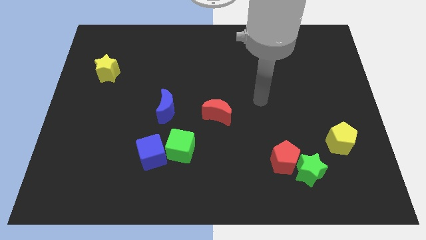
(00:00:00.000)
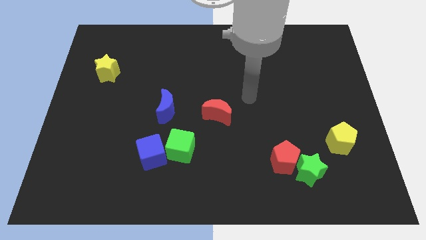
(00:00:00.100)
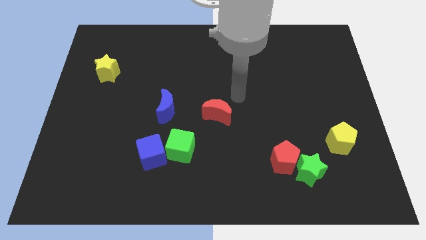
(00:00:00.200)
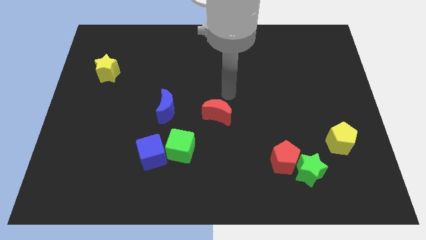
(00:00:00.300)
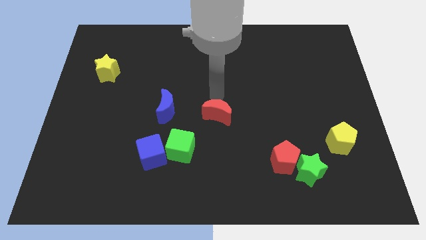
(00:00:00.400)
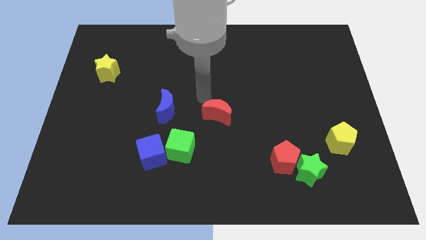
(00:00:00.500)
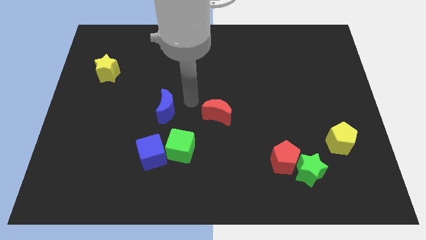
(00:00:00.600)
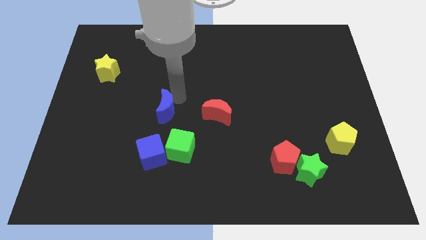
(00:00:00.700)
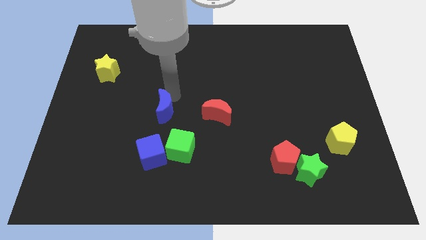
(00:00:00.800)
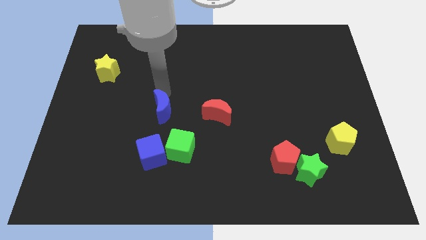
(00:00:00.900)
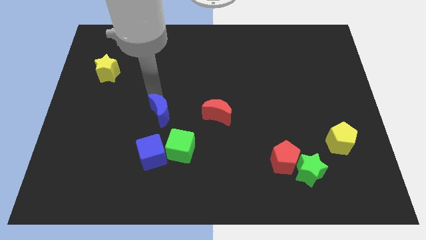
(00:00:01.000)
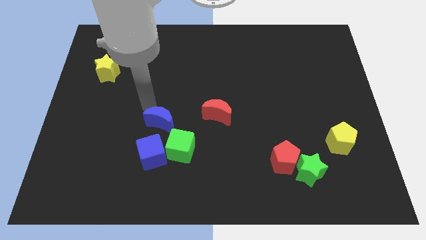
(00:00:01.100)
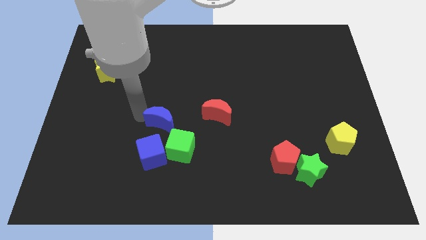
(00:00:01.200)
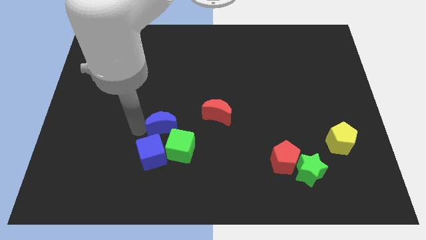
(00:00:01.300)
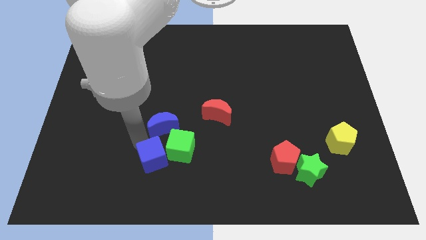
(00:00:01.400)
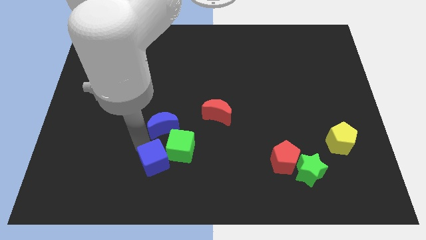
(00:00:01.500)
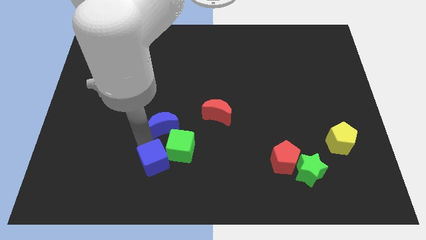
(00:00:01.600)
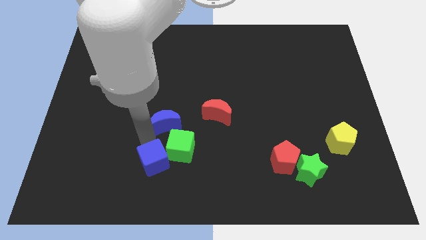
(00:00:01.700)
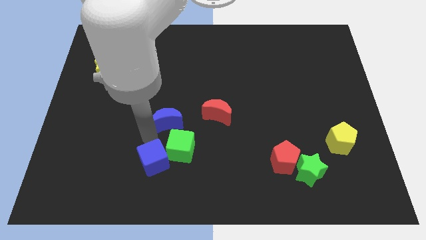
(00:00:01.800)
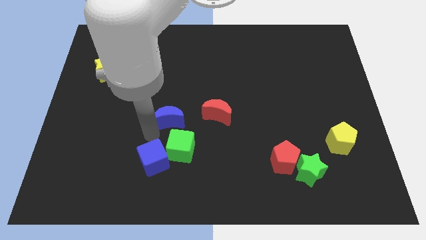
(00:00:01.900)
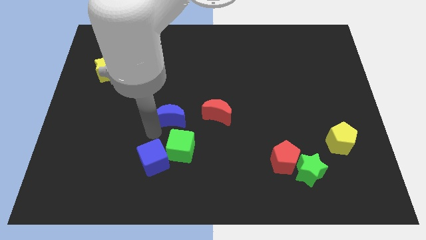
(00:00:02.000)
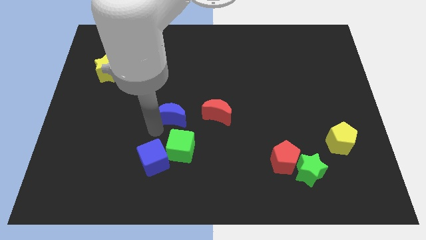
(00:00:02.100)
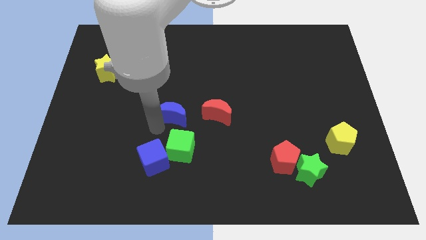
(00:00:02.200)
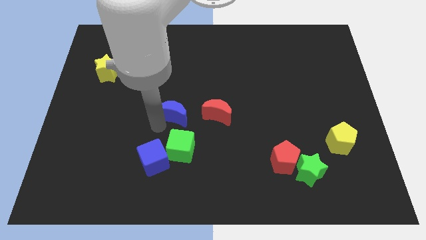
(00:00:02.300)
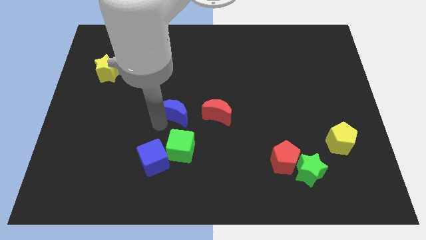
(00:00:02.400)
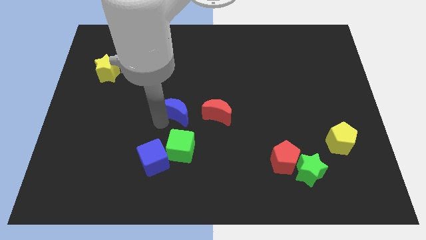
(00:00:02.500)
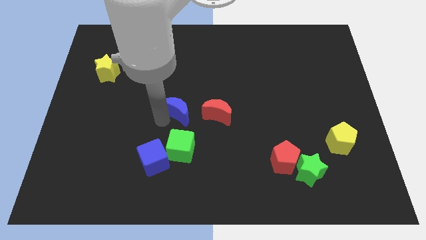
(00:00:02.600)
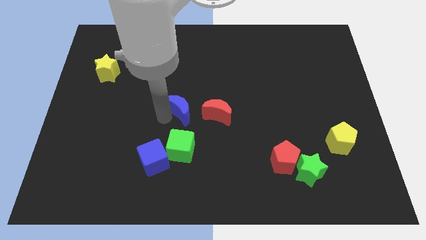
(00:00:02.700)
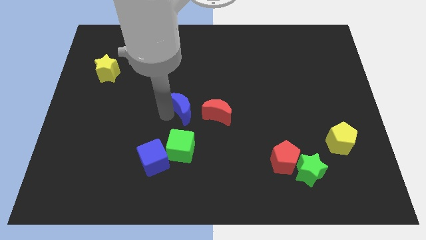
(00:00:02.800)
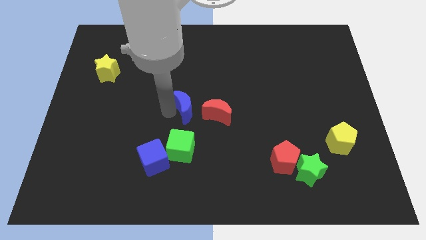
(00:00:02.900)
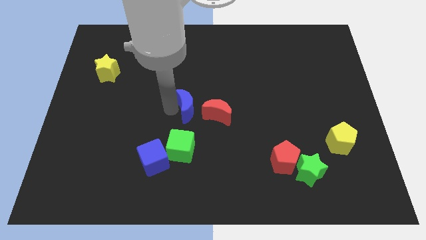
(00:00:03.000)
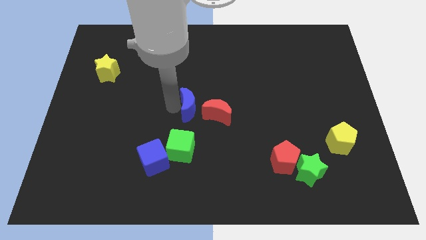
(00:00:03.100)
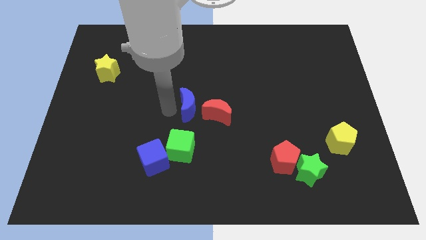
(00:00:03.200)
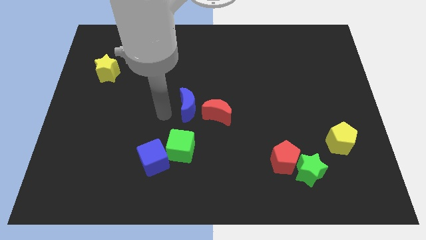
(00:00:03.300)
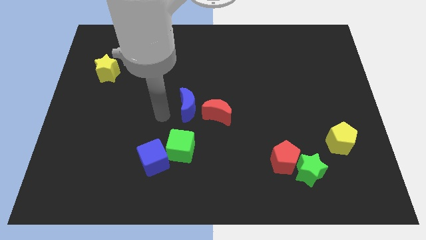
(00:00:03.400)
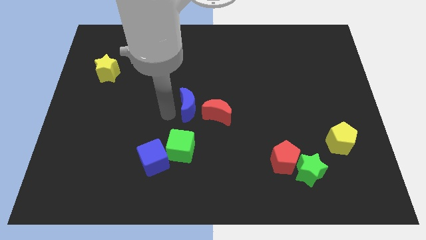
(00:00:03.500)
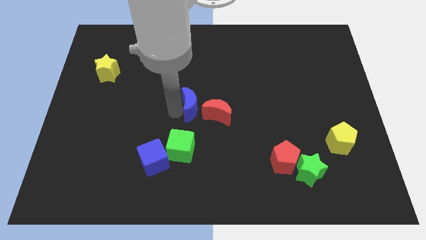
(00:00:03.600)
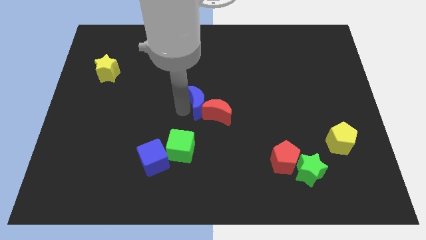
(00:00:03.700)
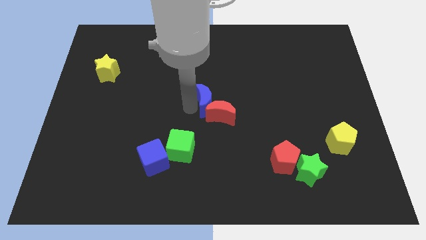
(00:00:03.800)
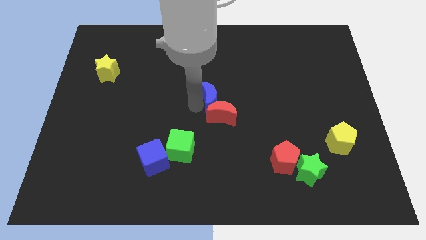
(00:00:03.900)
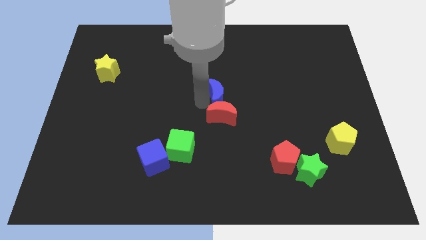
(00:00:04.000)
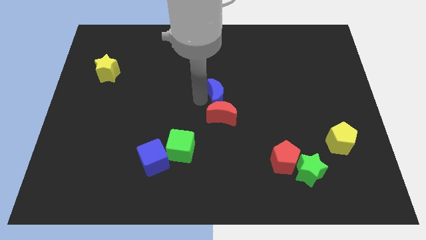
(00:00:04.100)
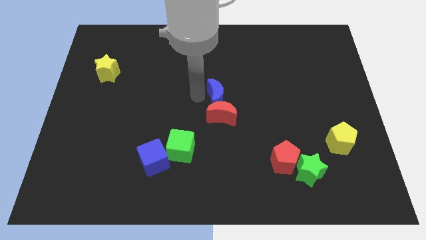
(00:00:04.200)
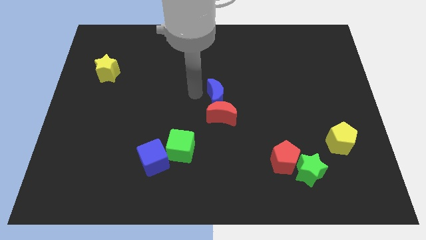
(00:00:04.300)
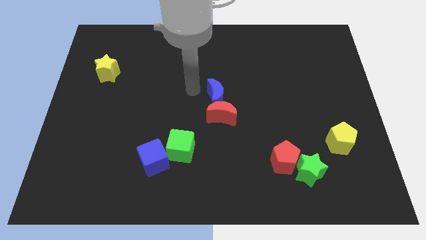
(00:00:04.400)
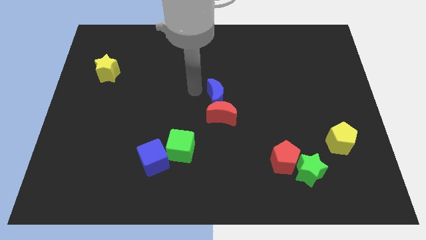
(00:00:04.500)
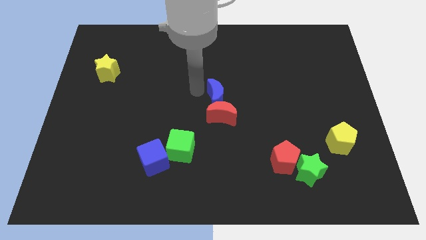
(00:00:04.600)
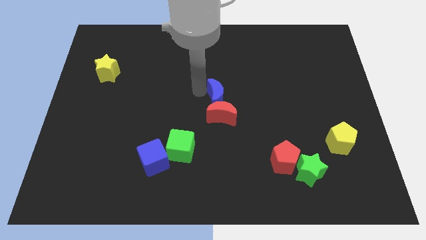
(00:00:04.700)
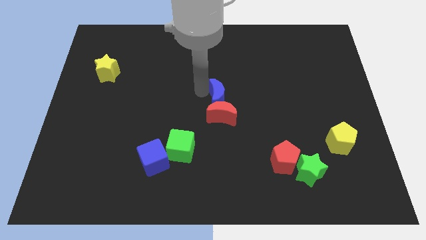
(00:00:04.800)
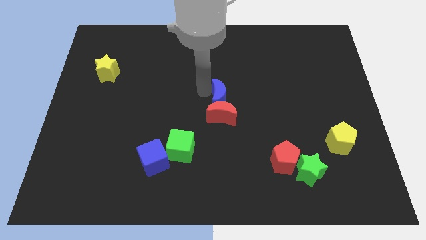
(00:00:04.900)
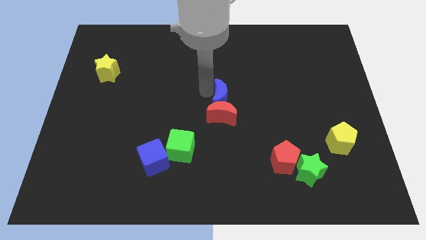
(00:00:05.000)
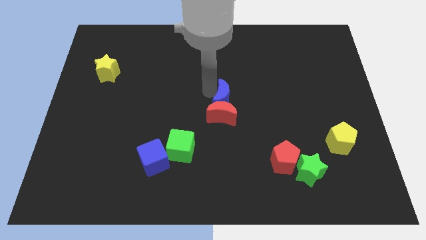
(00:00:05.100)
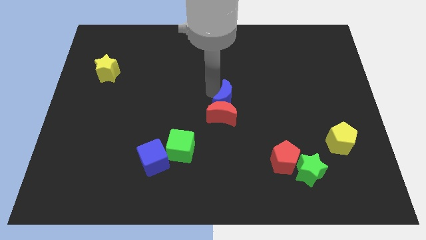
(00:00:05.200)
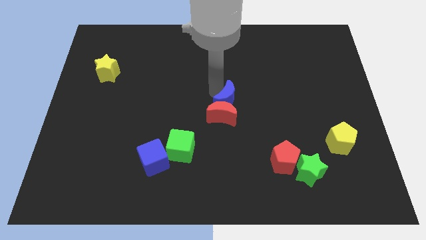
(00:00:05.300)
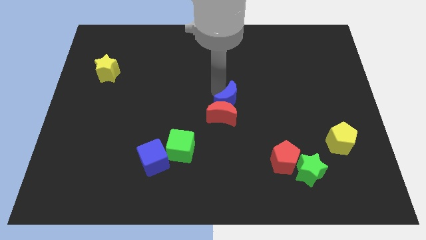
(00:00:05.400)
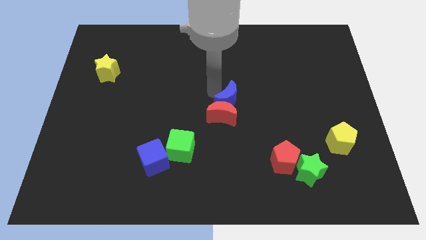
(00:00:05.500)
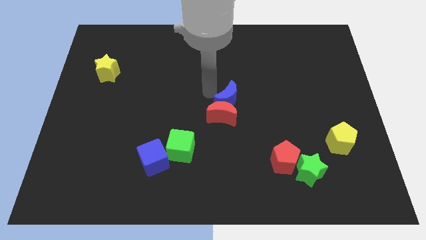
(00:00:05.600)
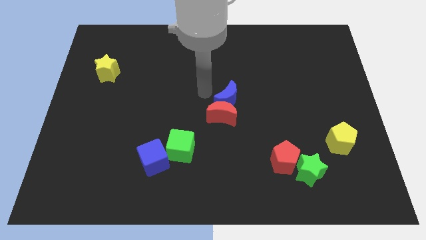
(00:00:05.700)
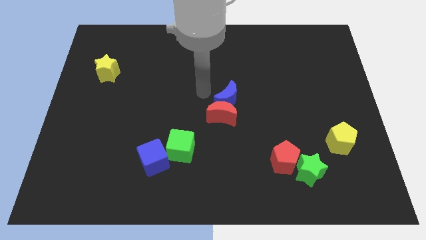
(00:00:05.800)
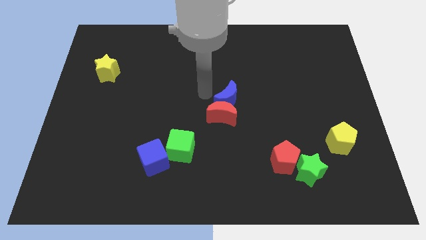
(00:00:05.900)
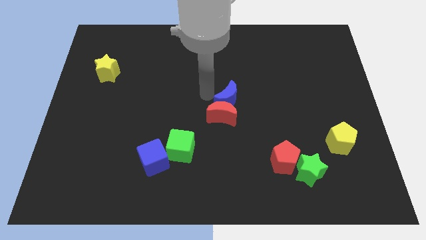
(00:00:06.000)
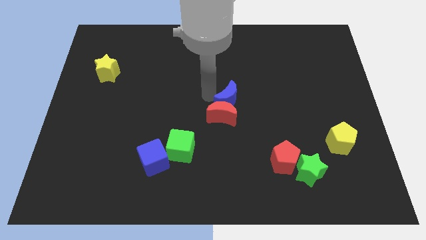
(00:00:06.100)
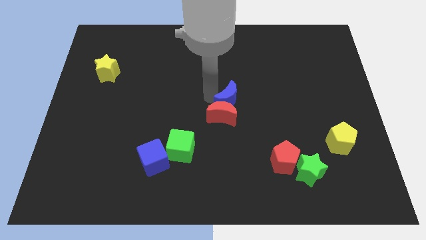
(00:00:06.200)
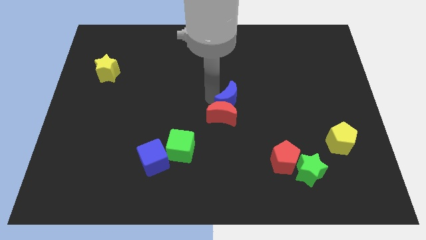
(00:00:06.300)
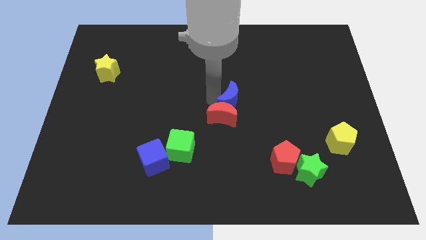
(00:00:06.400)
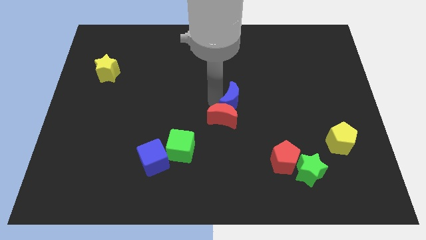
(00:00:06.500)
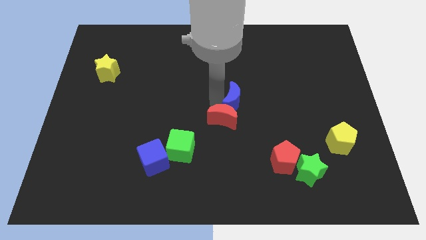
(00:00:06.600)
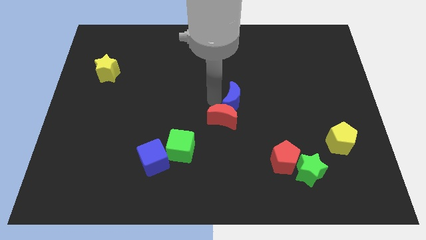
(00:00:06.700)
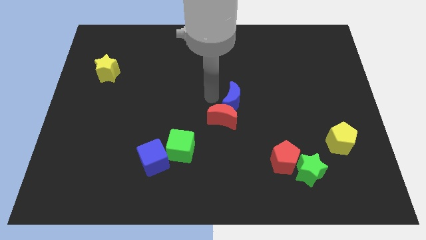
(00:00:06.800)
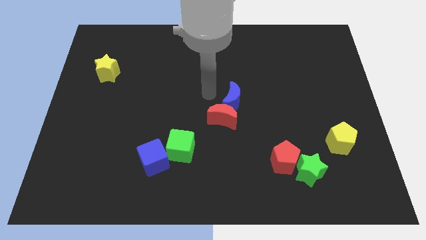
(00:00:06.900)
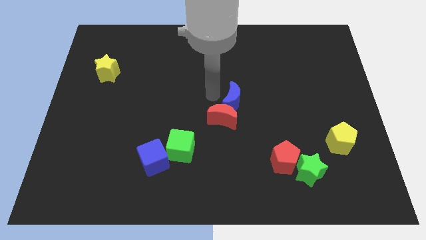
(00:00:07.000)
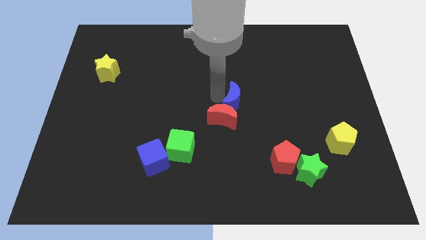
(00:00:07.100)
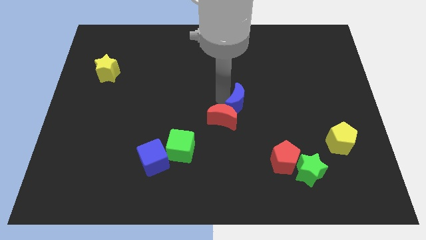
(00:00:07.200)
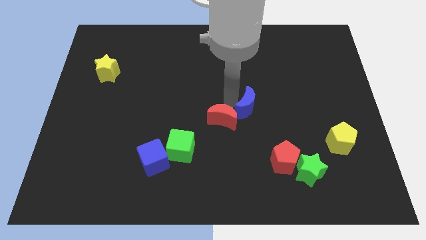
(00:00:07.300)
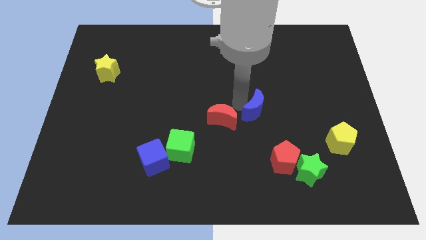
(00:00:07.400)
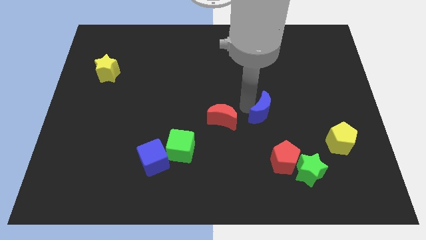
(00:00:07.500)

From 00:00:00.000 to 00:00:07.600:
put the blue moon to the top of the red pentagon
